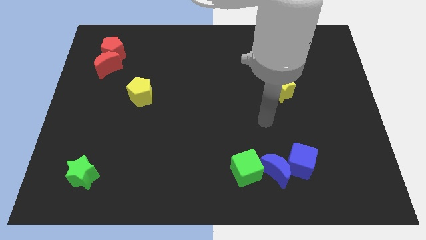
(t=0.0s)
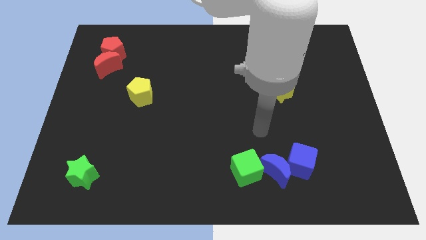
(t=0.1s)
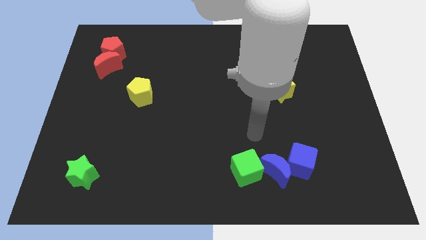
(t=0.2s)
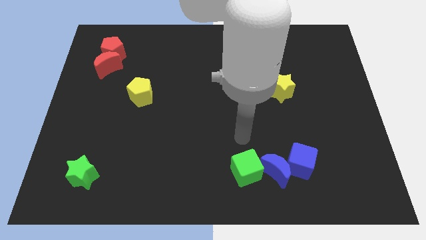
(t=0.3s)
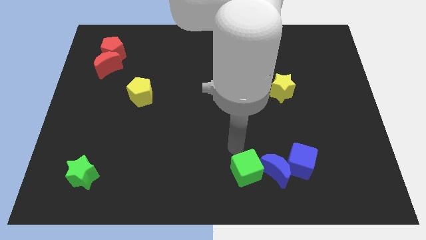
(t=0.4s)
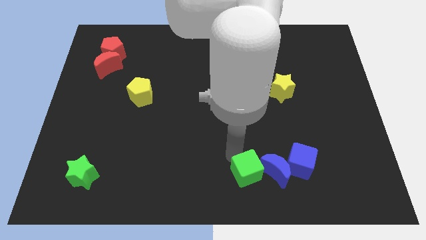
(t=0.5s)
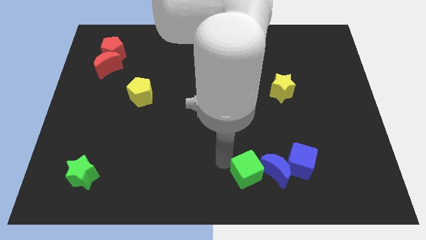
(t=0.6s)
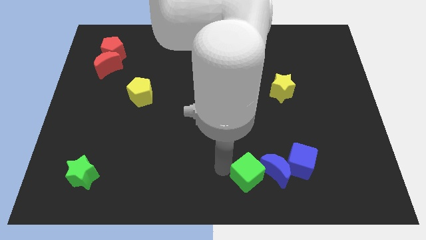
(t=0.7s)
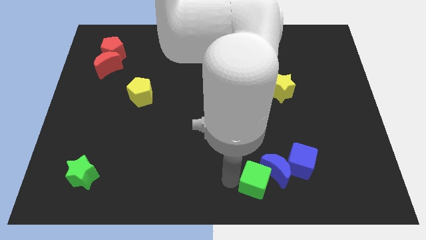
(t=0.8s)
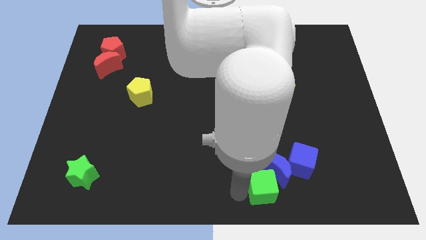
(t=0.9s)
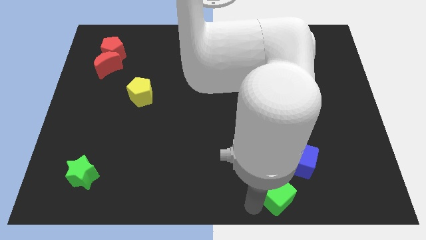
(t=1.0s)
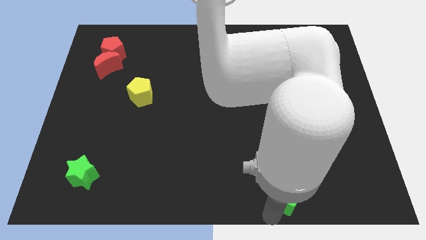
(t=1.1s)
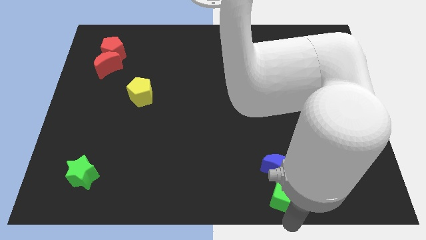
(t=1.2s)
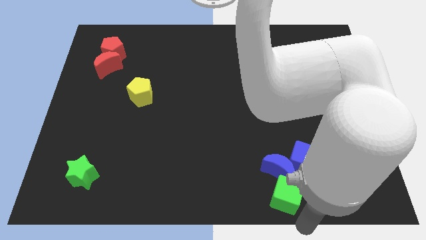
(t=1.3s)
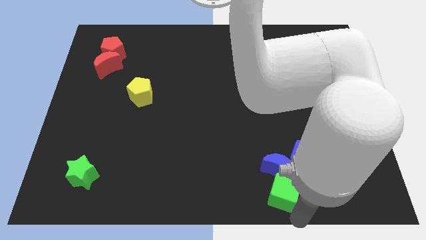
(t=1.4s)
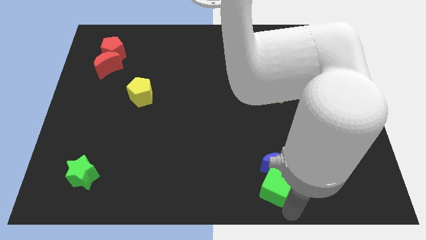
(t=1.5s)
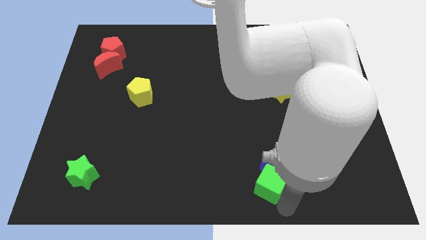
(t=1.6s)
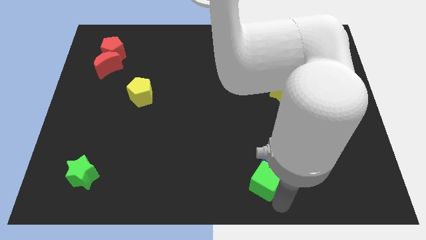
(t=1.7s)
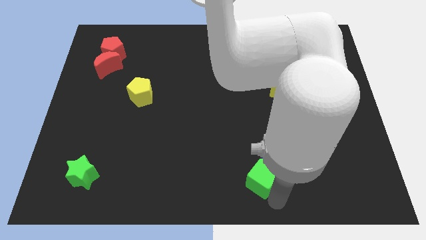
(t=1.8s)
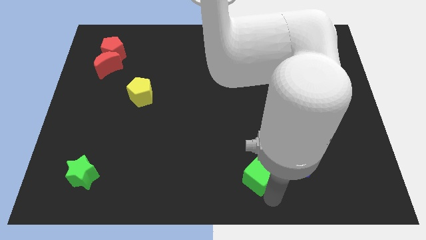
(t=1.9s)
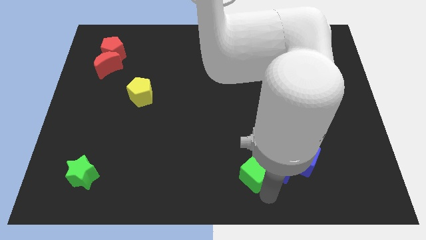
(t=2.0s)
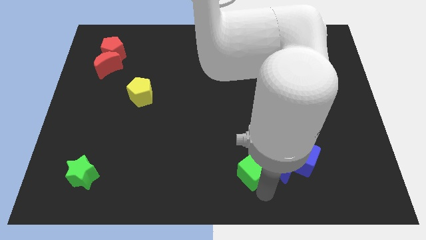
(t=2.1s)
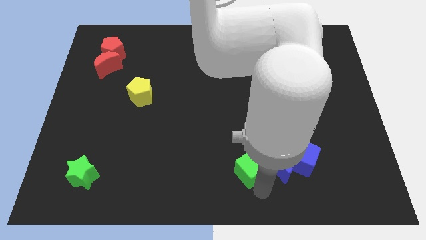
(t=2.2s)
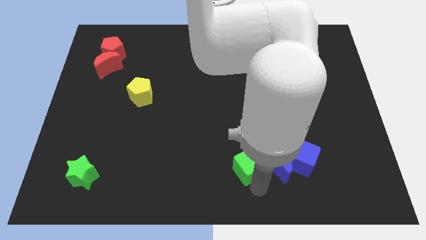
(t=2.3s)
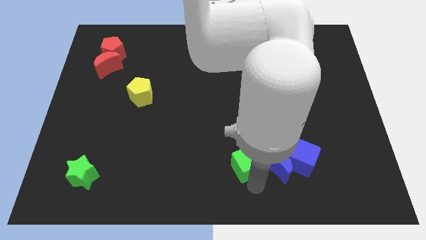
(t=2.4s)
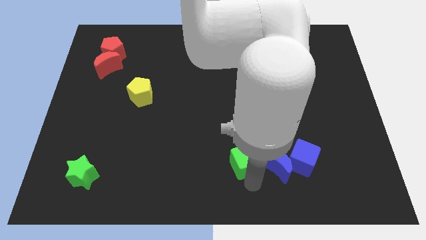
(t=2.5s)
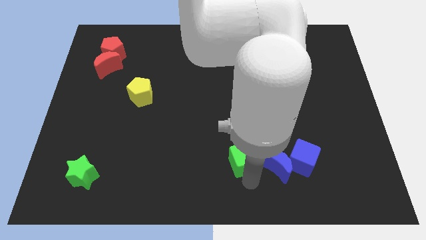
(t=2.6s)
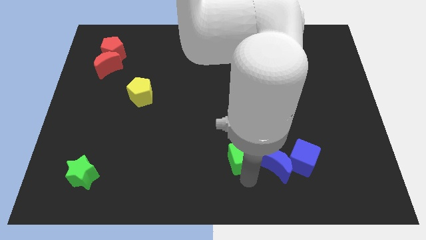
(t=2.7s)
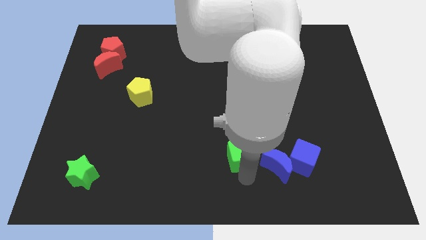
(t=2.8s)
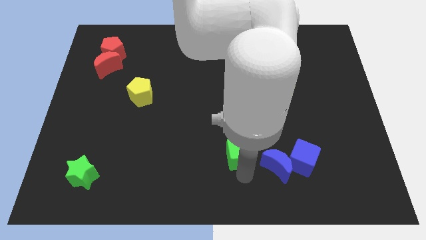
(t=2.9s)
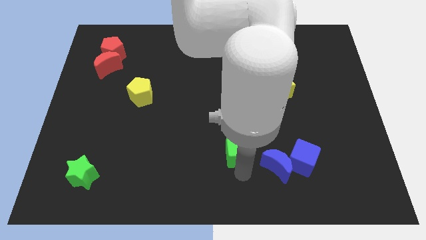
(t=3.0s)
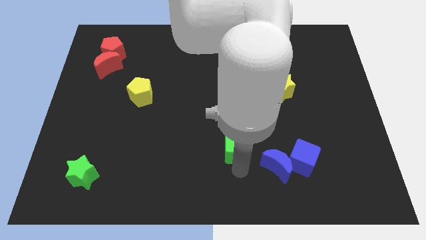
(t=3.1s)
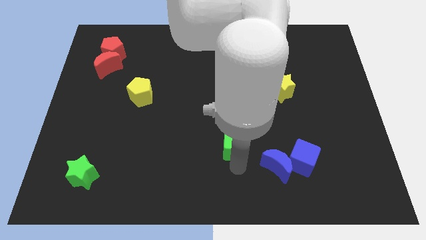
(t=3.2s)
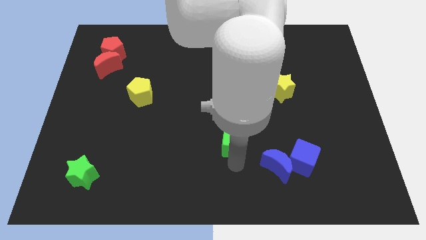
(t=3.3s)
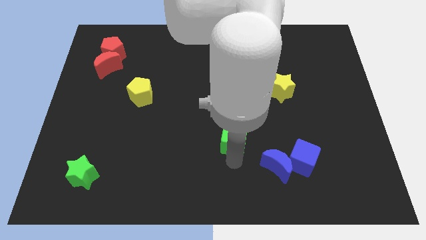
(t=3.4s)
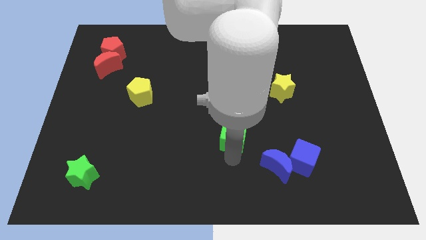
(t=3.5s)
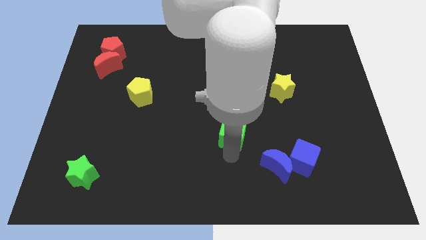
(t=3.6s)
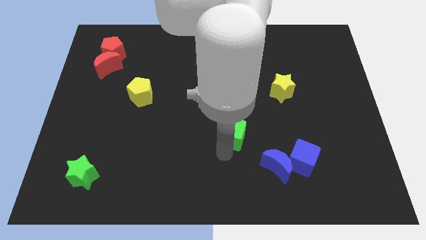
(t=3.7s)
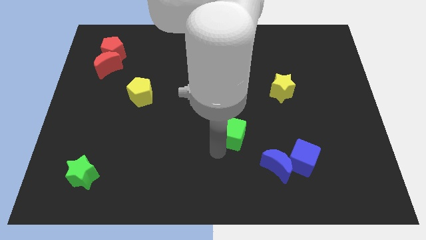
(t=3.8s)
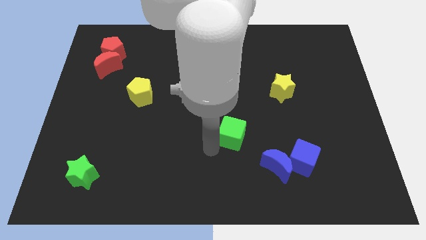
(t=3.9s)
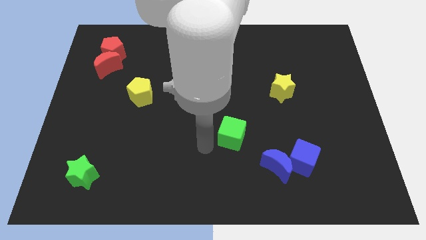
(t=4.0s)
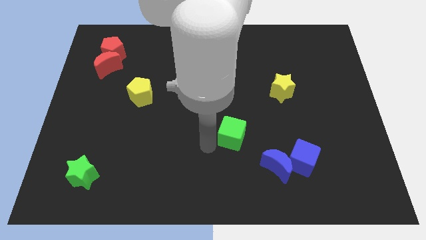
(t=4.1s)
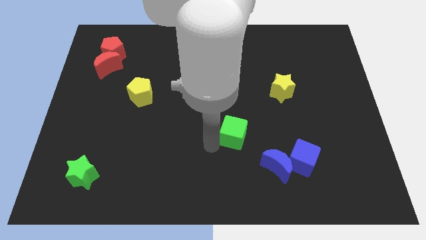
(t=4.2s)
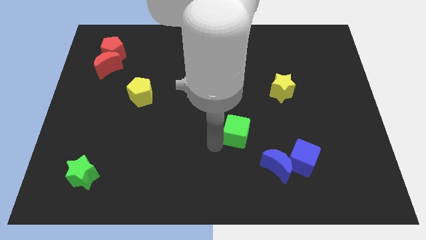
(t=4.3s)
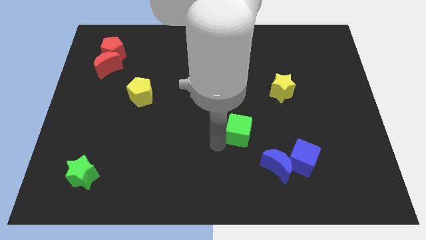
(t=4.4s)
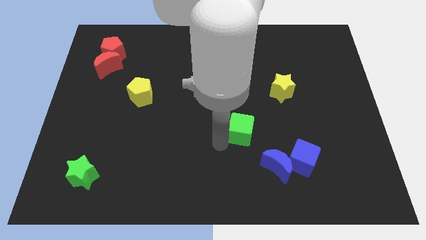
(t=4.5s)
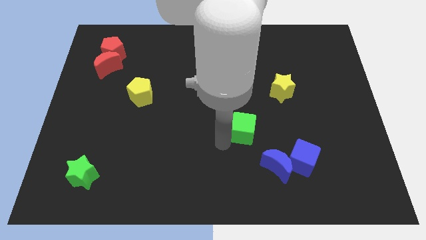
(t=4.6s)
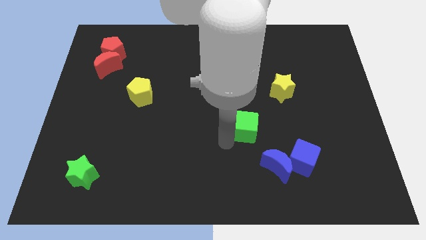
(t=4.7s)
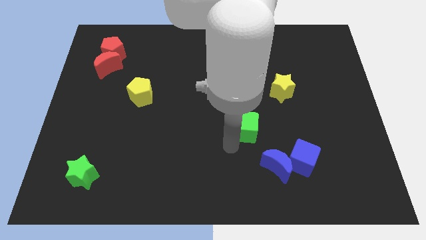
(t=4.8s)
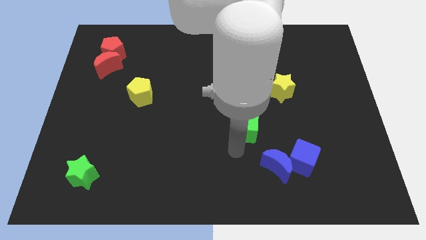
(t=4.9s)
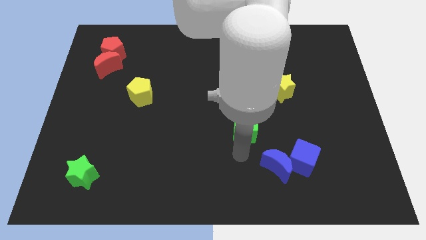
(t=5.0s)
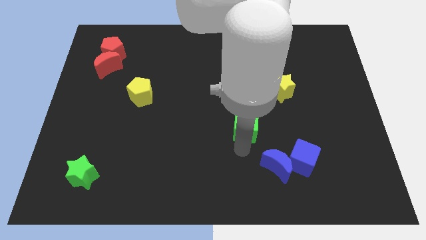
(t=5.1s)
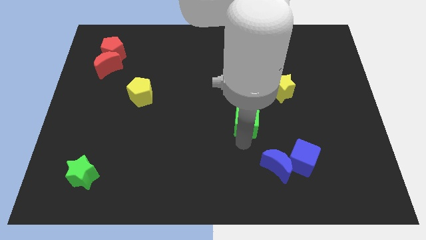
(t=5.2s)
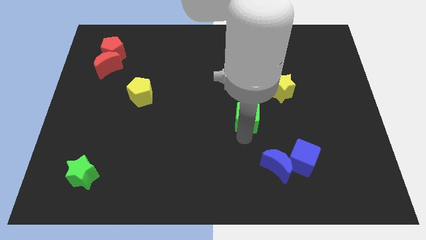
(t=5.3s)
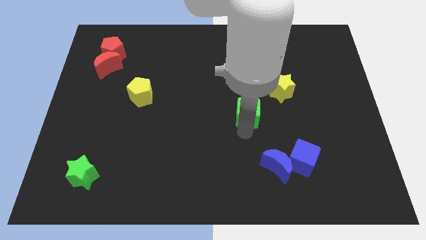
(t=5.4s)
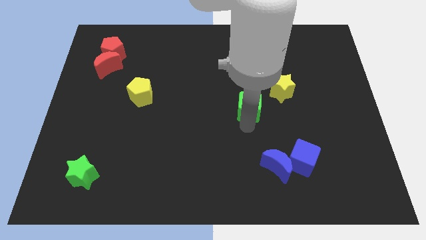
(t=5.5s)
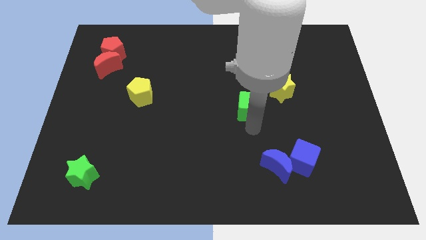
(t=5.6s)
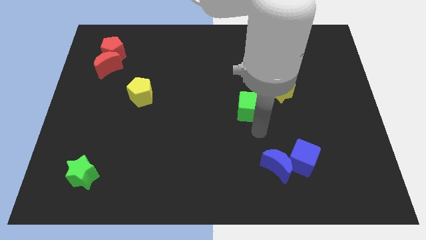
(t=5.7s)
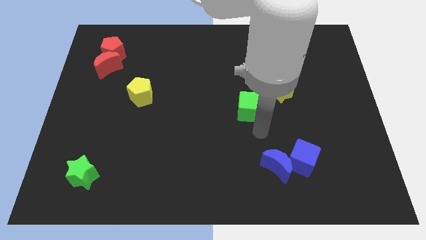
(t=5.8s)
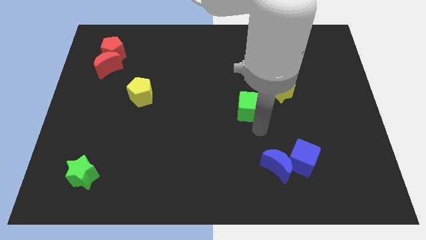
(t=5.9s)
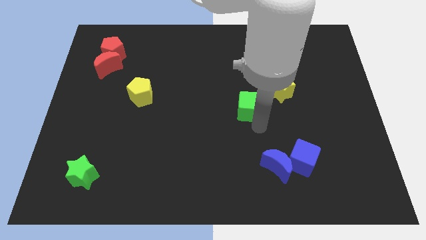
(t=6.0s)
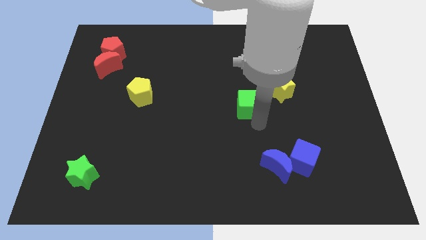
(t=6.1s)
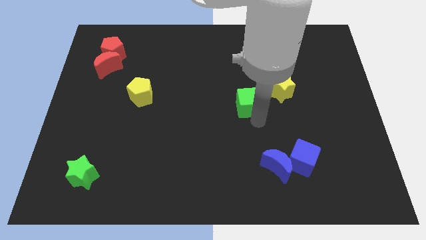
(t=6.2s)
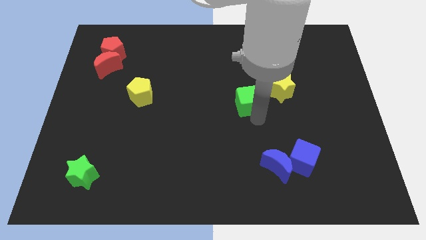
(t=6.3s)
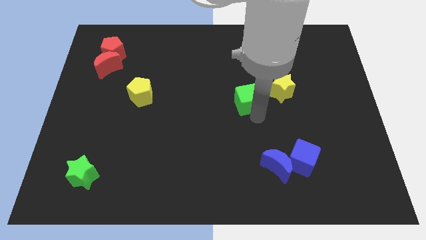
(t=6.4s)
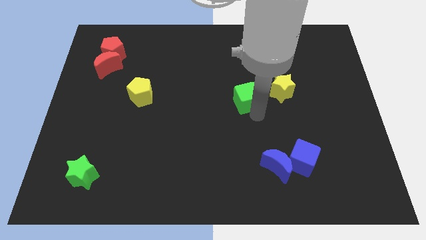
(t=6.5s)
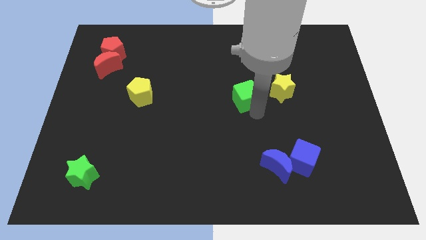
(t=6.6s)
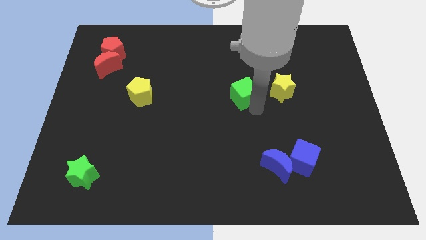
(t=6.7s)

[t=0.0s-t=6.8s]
slide the green cube up

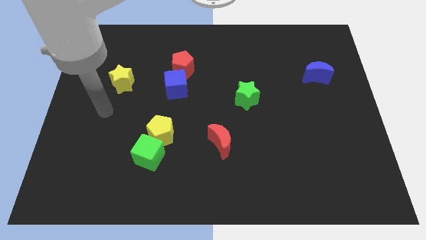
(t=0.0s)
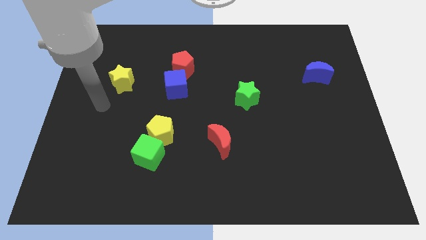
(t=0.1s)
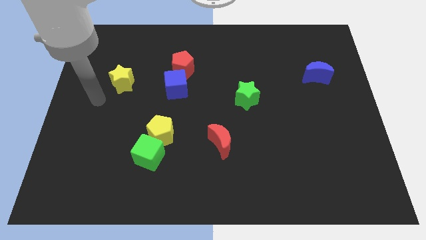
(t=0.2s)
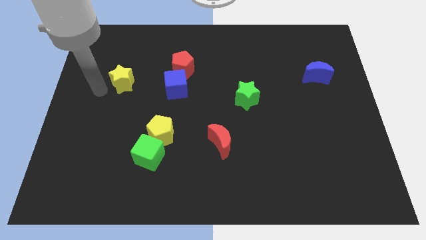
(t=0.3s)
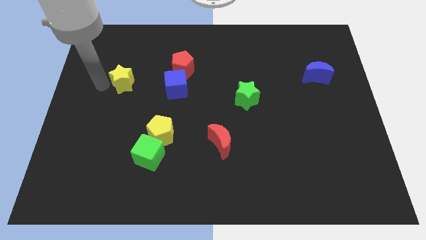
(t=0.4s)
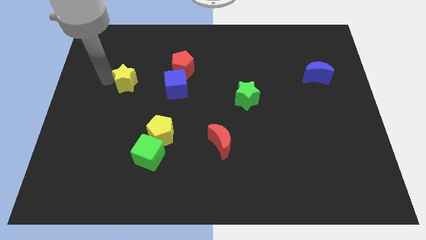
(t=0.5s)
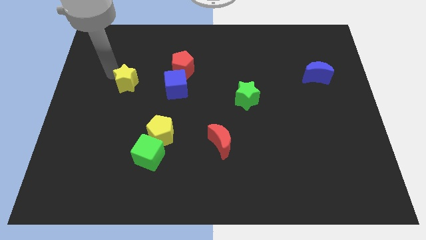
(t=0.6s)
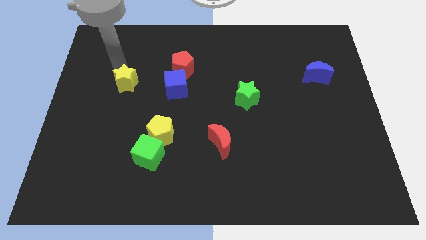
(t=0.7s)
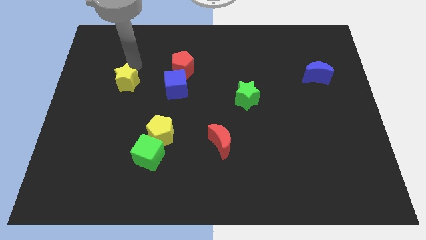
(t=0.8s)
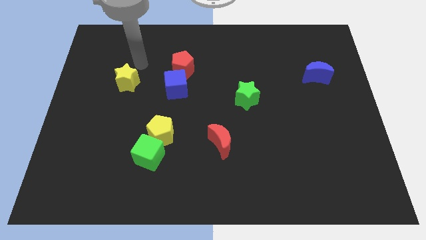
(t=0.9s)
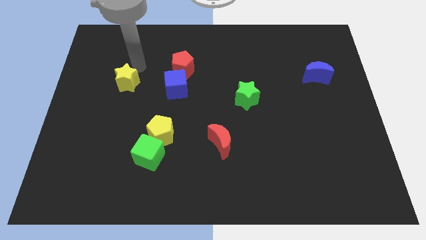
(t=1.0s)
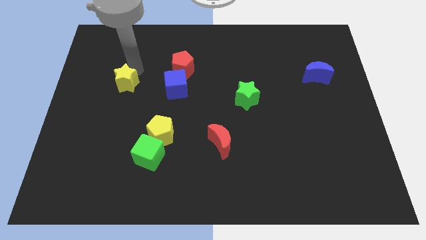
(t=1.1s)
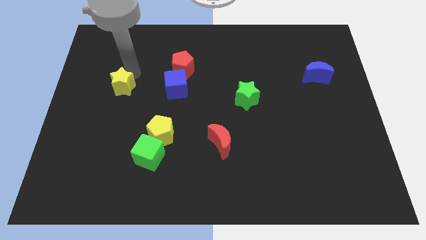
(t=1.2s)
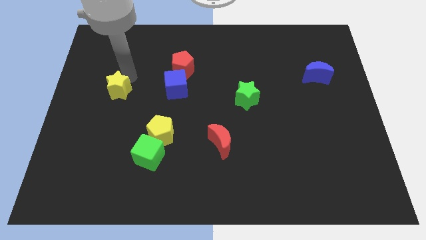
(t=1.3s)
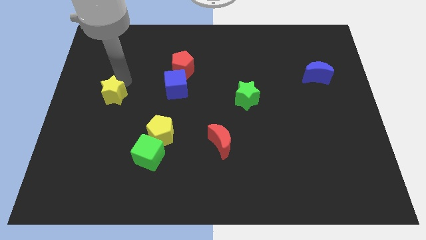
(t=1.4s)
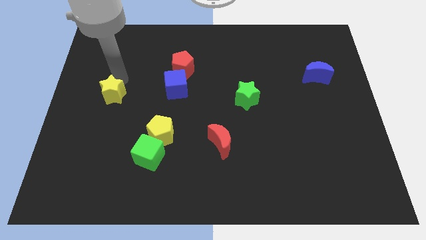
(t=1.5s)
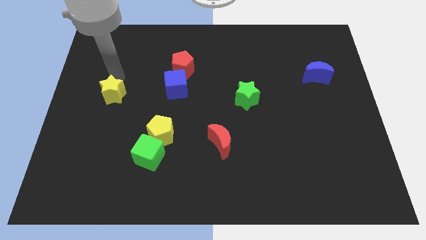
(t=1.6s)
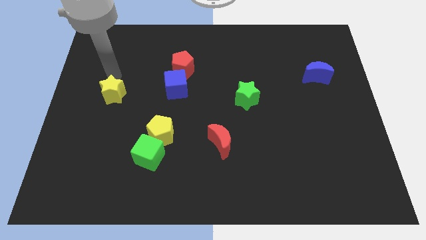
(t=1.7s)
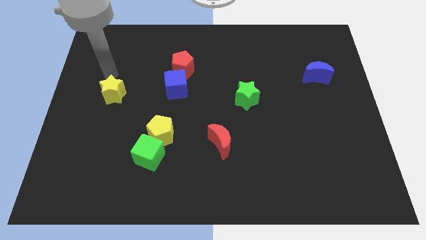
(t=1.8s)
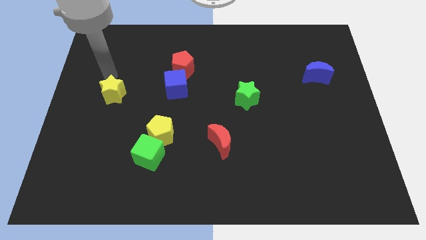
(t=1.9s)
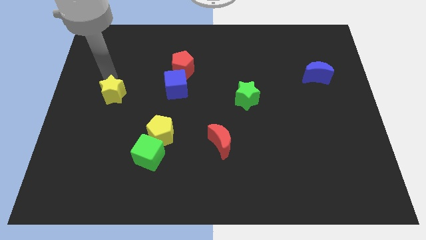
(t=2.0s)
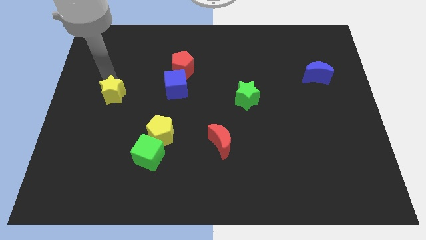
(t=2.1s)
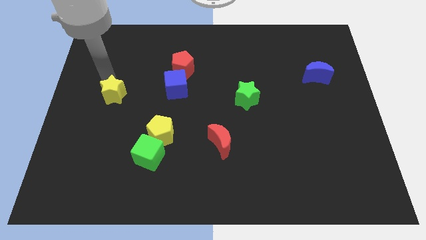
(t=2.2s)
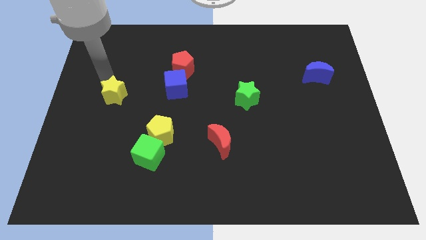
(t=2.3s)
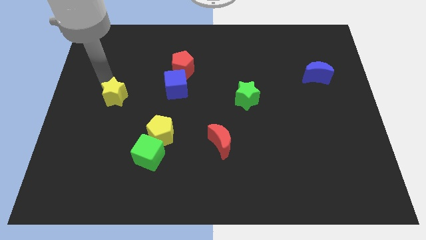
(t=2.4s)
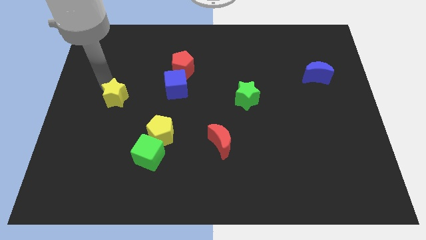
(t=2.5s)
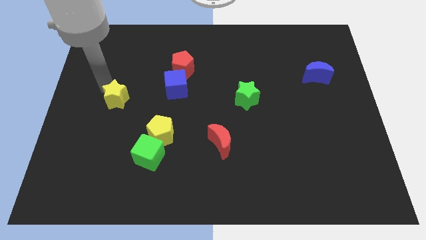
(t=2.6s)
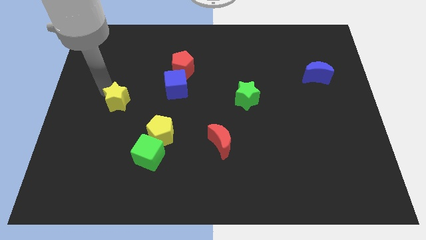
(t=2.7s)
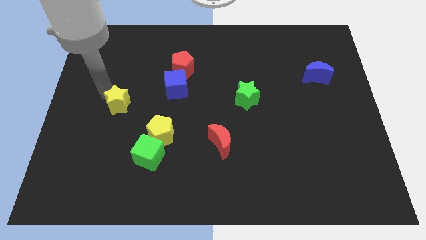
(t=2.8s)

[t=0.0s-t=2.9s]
push the yellow star down a bit
